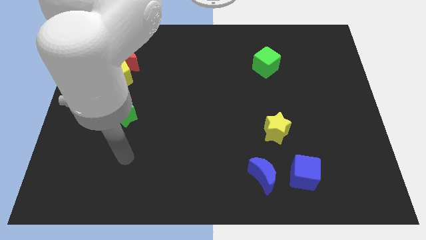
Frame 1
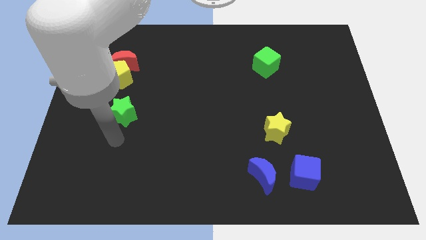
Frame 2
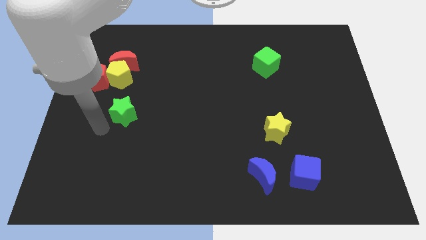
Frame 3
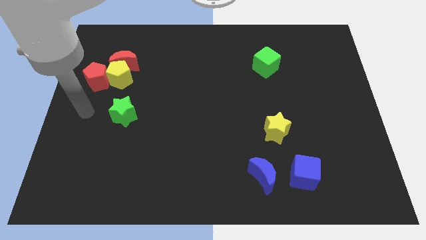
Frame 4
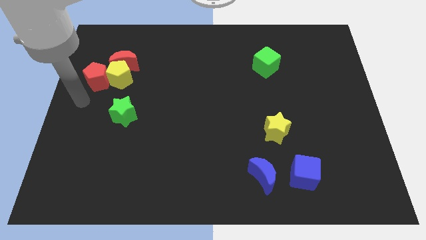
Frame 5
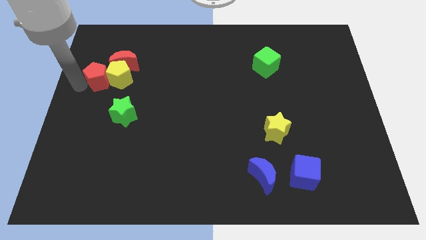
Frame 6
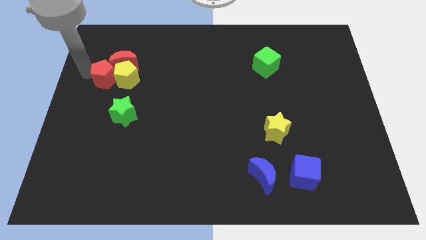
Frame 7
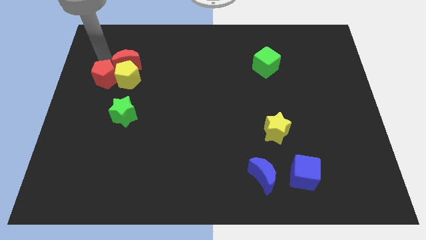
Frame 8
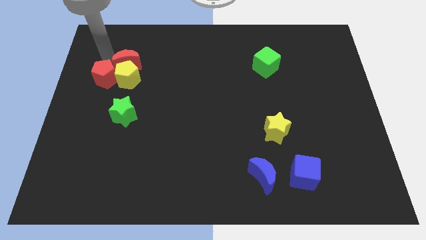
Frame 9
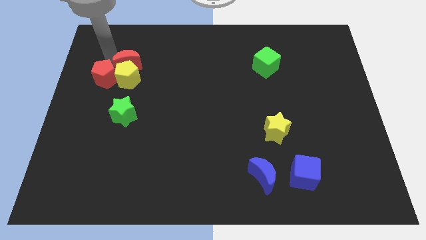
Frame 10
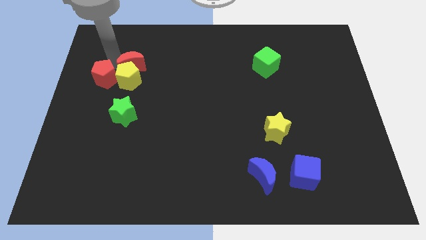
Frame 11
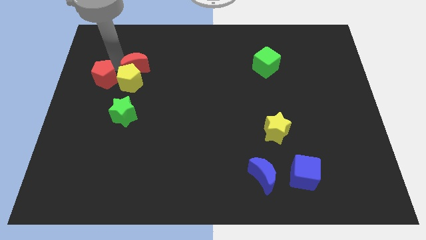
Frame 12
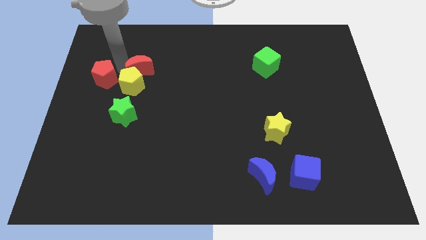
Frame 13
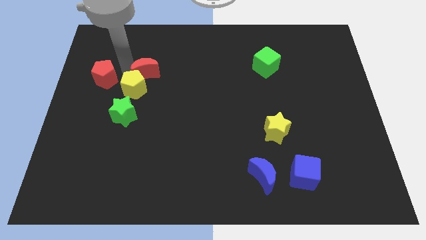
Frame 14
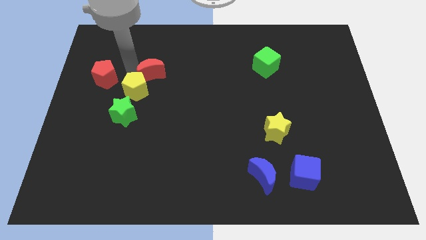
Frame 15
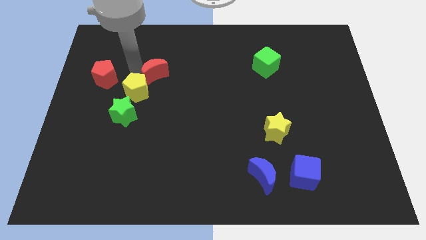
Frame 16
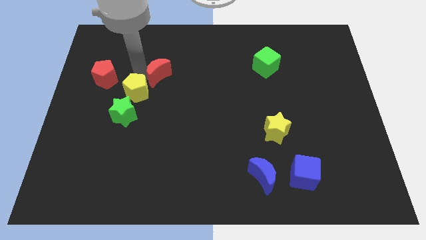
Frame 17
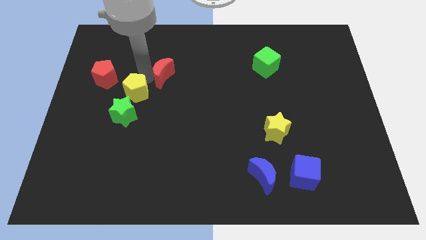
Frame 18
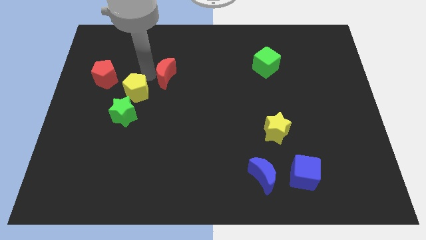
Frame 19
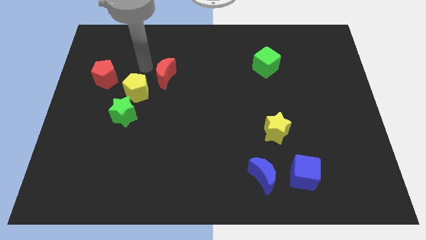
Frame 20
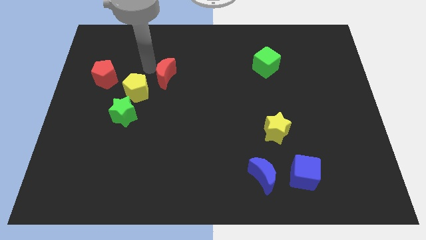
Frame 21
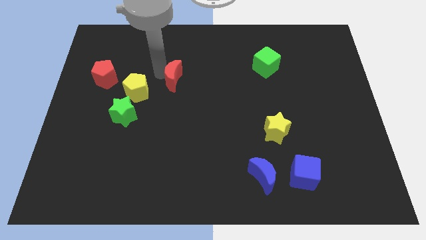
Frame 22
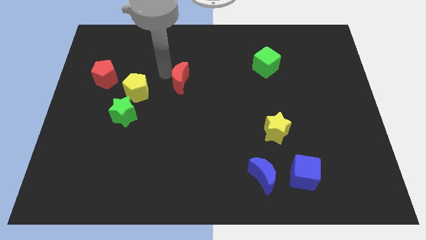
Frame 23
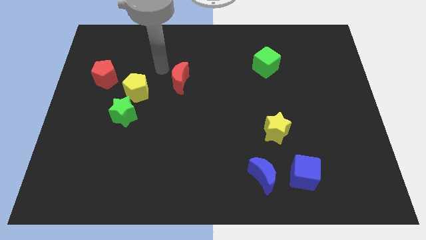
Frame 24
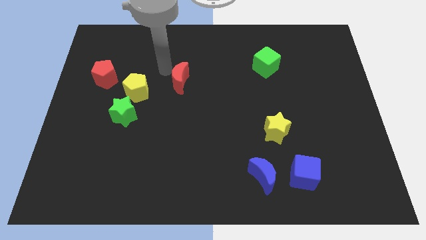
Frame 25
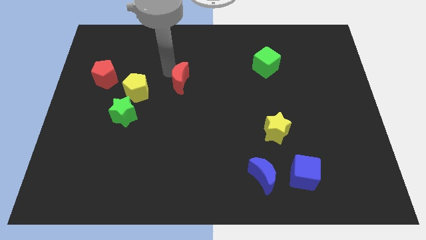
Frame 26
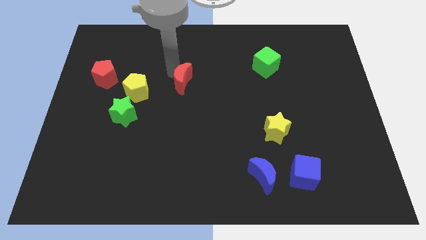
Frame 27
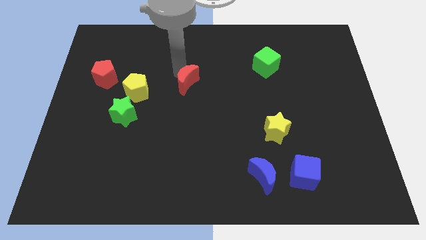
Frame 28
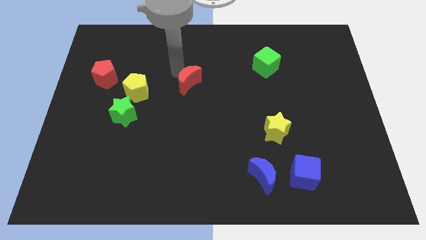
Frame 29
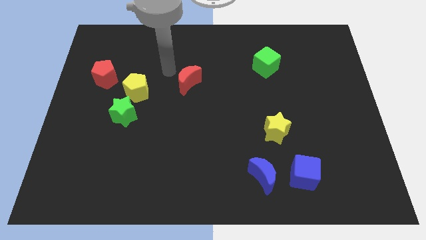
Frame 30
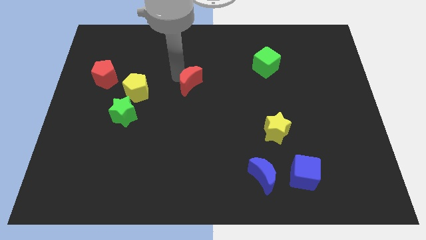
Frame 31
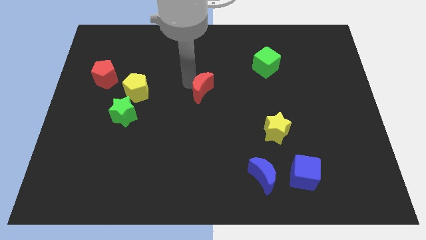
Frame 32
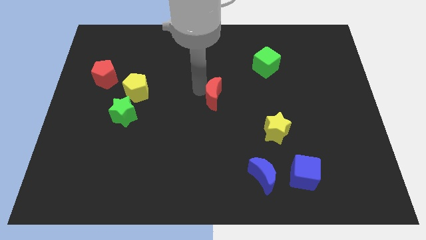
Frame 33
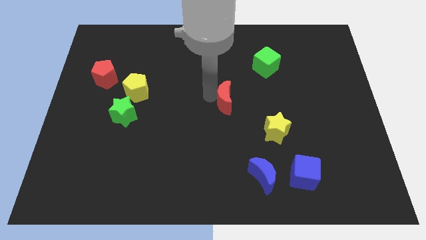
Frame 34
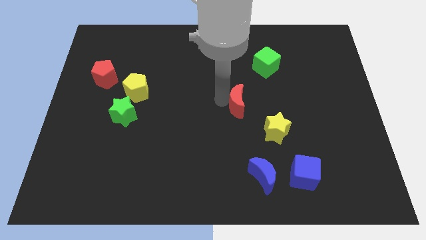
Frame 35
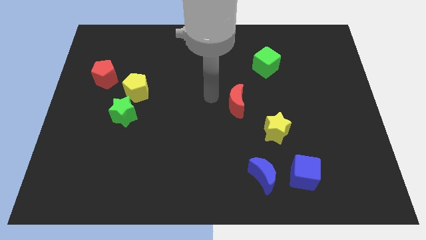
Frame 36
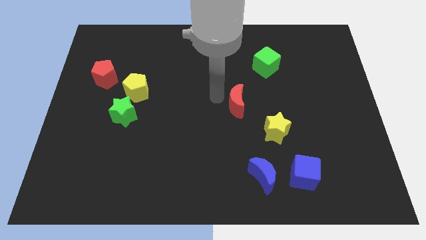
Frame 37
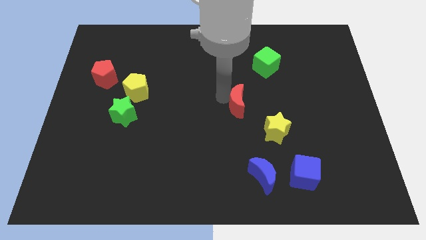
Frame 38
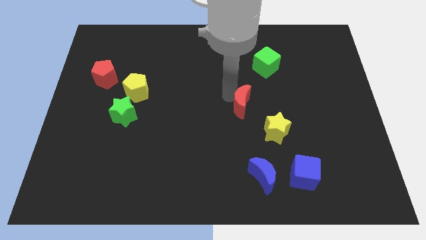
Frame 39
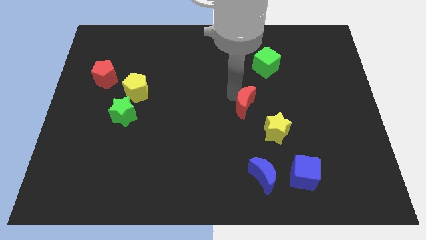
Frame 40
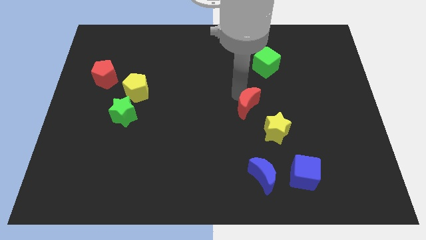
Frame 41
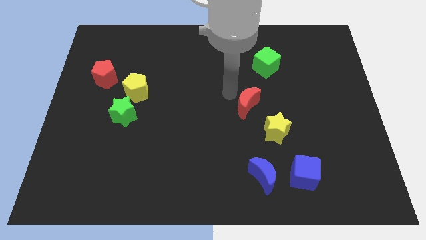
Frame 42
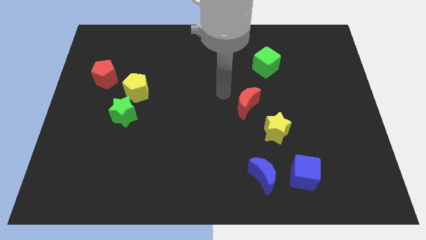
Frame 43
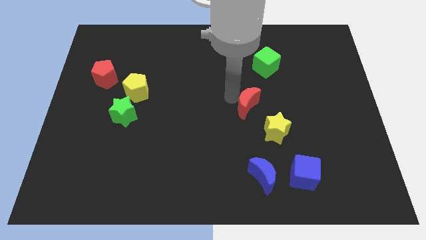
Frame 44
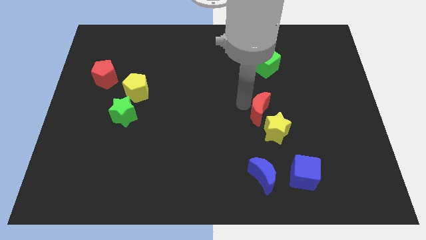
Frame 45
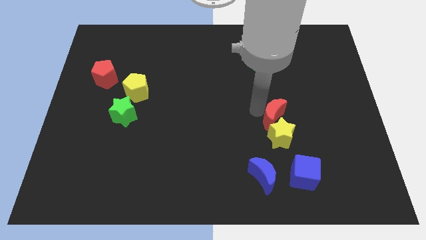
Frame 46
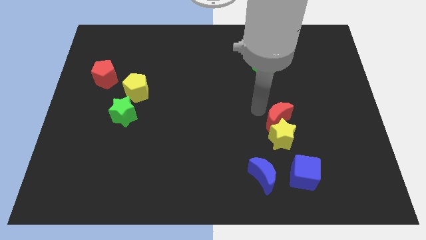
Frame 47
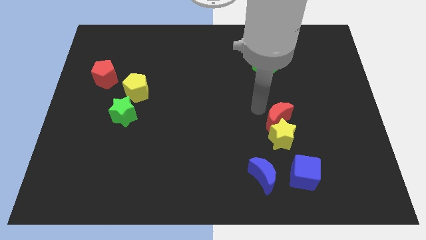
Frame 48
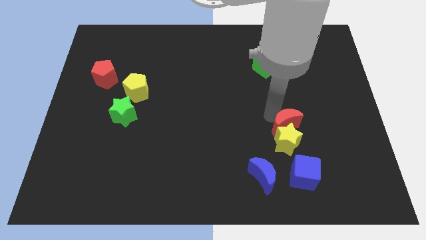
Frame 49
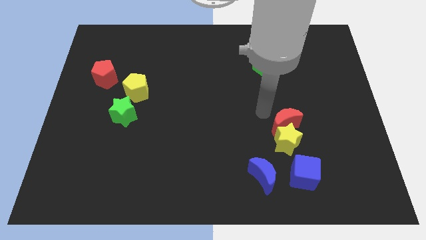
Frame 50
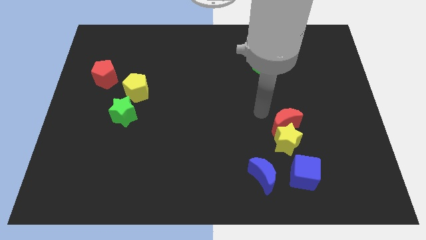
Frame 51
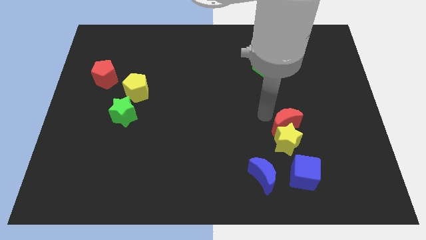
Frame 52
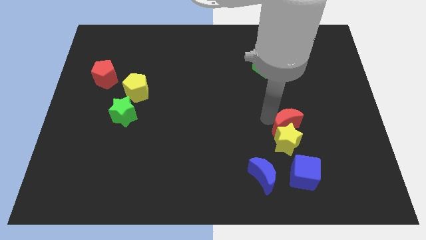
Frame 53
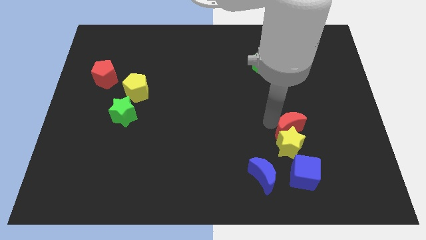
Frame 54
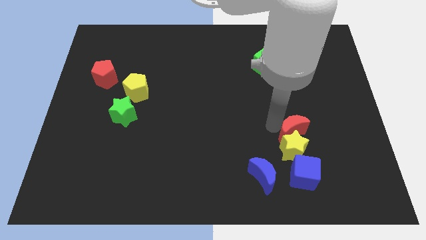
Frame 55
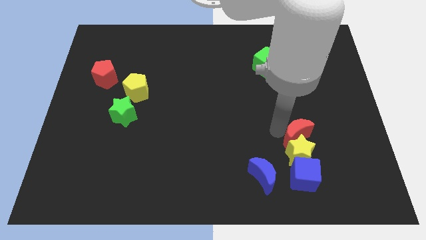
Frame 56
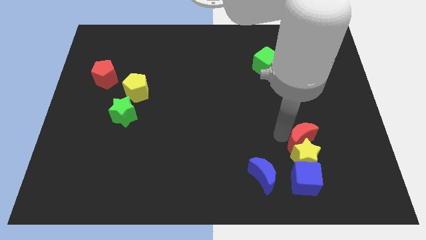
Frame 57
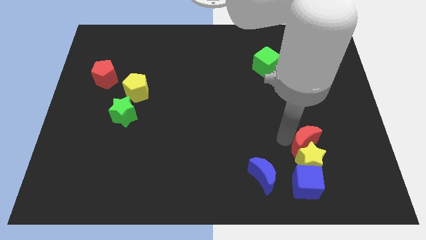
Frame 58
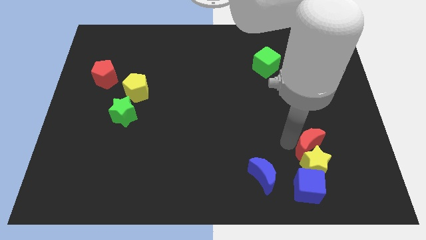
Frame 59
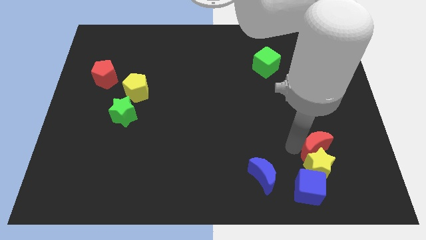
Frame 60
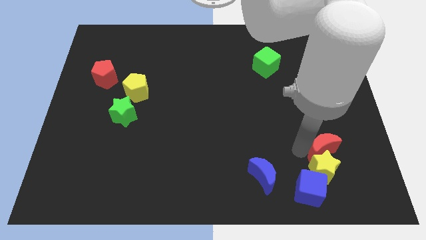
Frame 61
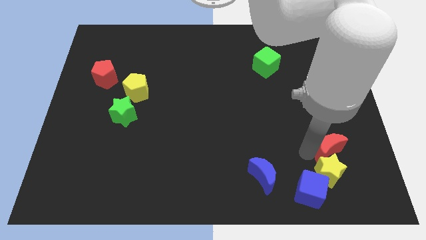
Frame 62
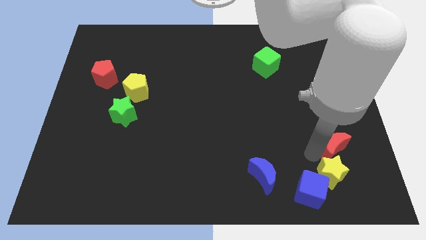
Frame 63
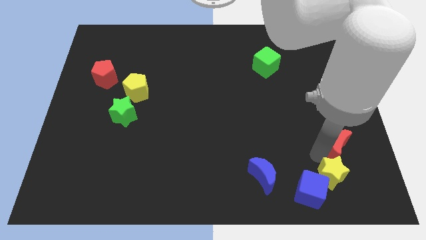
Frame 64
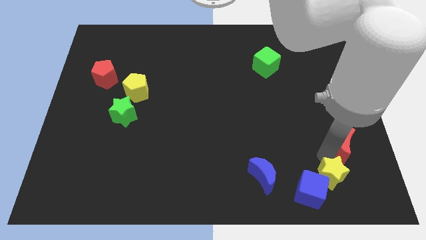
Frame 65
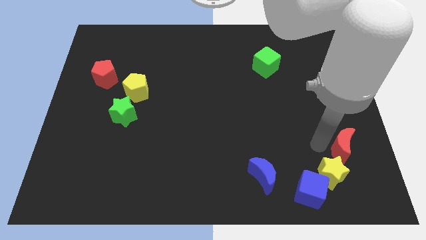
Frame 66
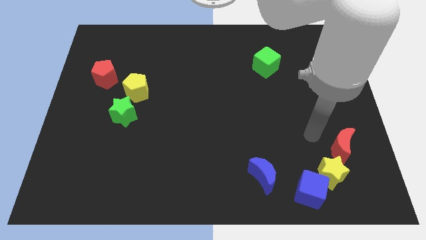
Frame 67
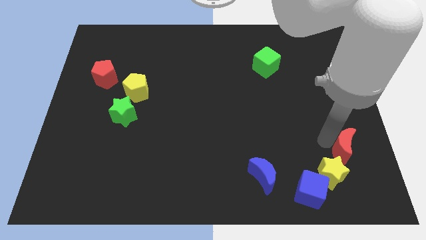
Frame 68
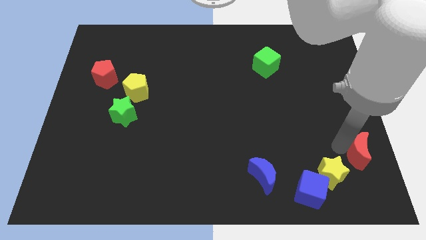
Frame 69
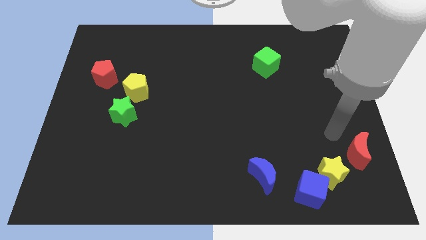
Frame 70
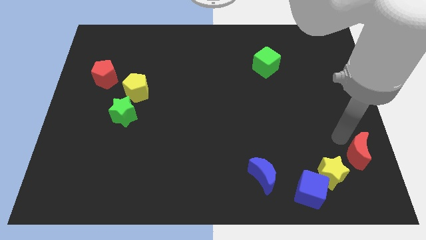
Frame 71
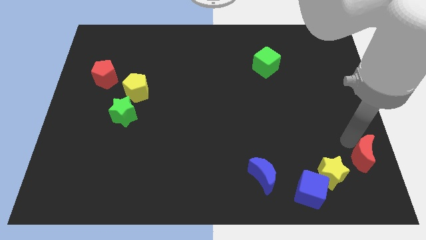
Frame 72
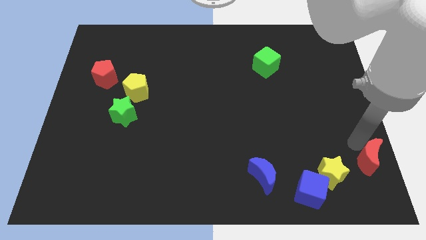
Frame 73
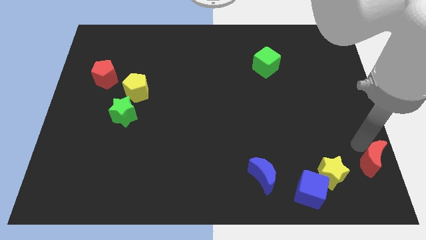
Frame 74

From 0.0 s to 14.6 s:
put the red moon to the bottom right corner
